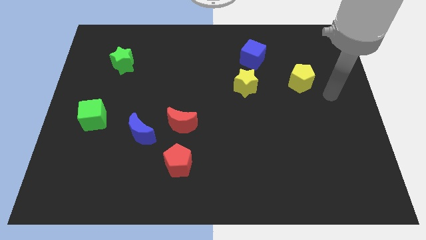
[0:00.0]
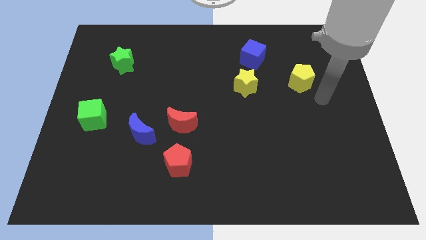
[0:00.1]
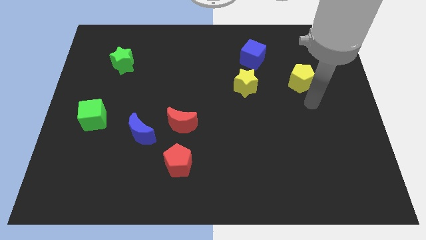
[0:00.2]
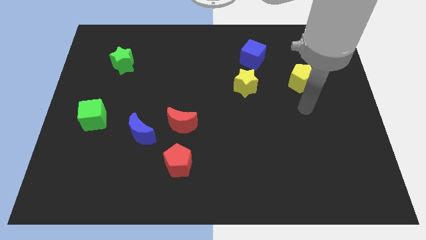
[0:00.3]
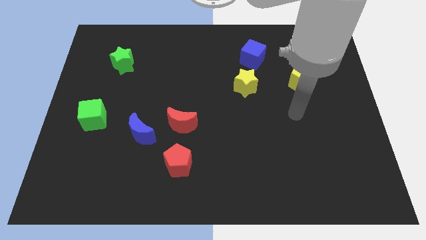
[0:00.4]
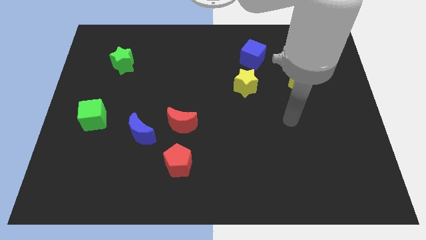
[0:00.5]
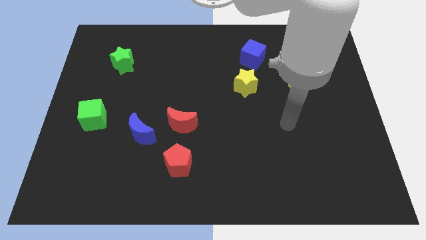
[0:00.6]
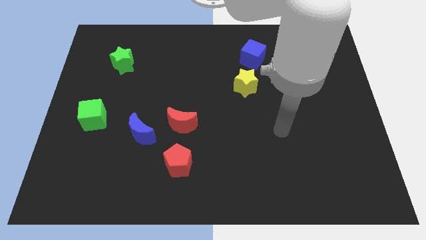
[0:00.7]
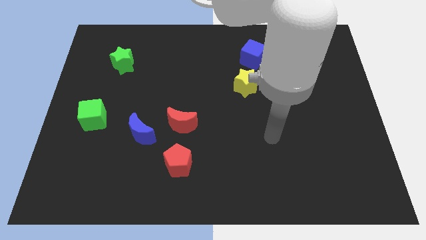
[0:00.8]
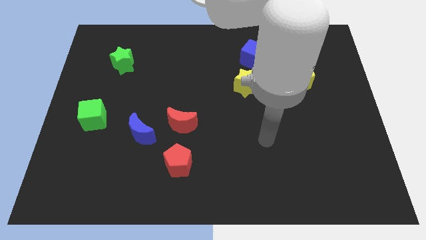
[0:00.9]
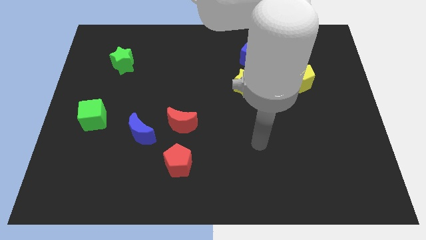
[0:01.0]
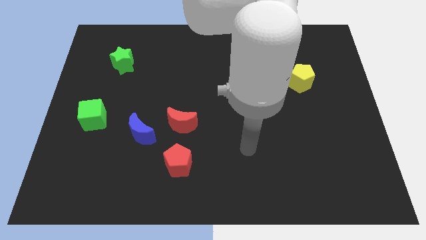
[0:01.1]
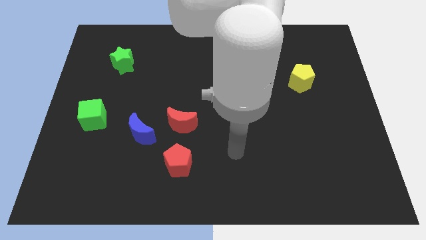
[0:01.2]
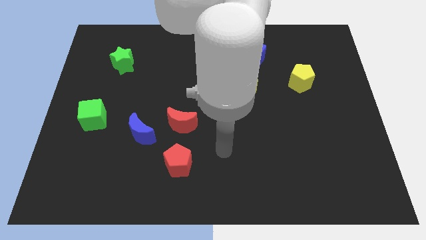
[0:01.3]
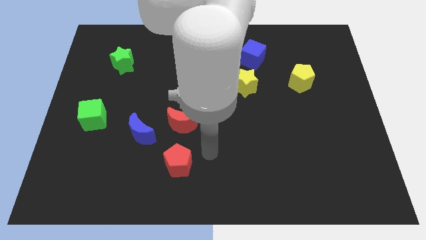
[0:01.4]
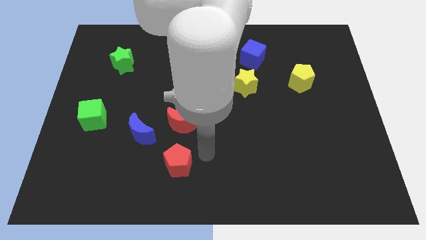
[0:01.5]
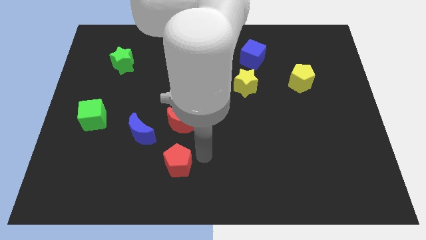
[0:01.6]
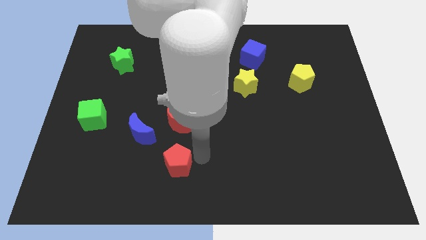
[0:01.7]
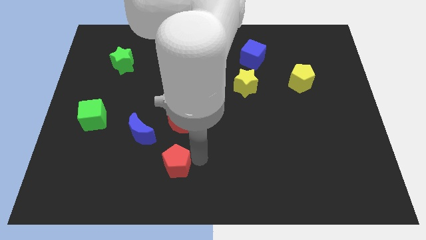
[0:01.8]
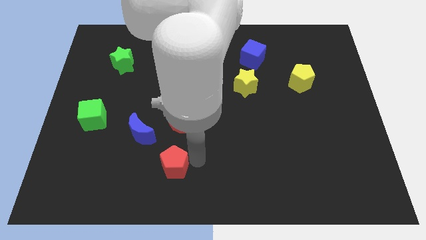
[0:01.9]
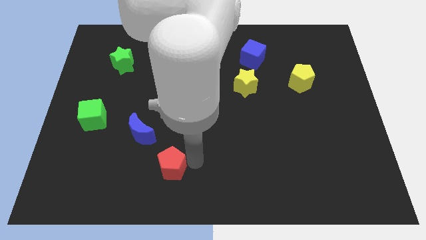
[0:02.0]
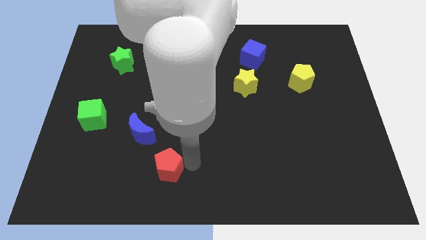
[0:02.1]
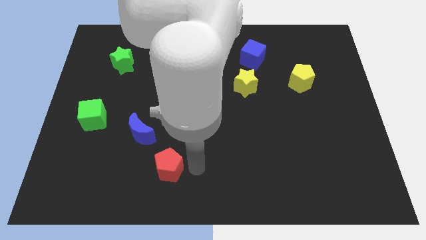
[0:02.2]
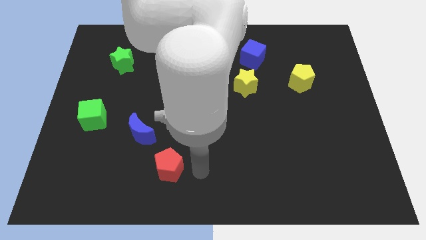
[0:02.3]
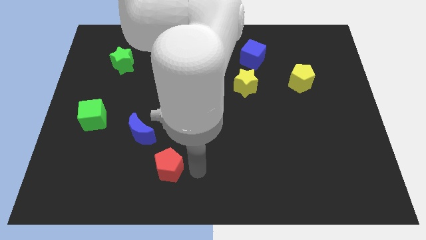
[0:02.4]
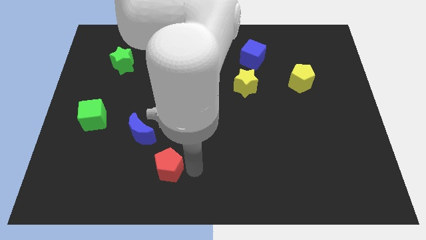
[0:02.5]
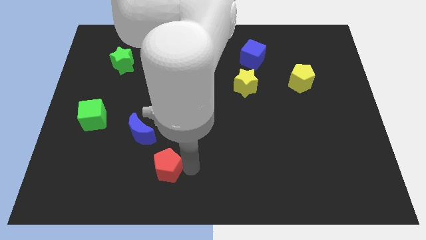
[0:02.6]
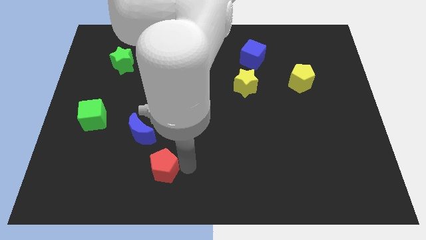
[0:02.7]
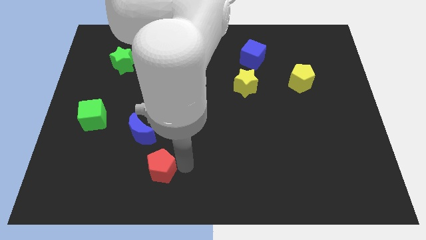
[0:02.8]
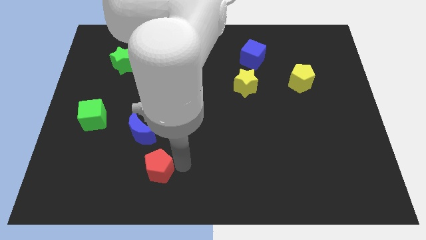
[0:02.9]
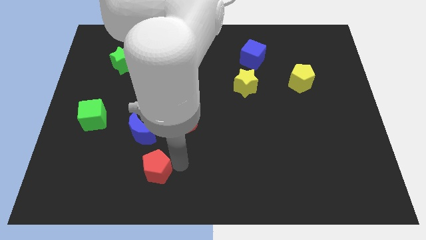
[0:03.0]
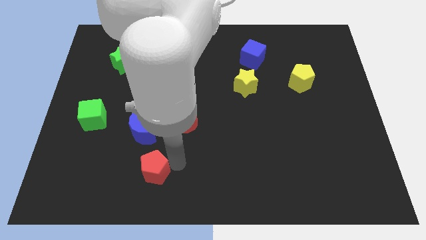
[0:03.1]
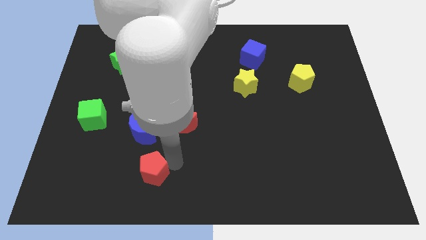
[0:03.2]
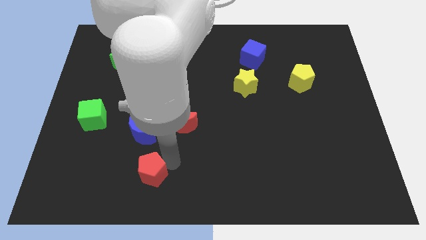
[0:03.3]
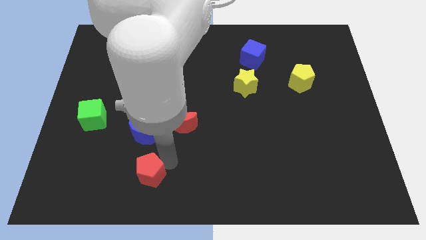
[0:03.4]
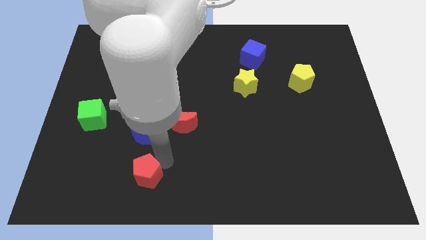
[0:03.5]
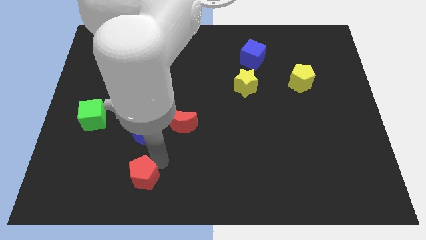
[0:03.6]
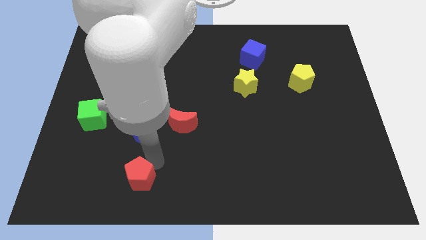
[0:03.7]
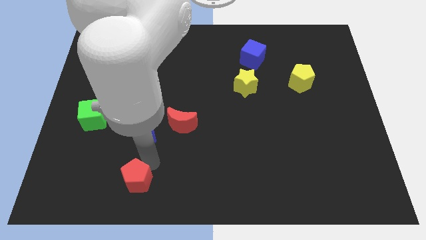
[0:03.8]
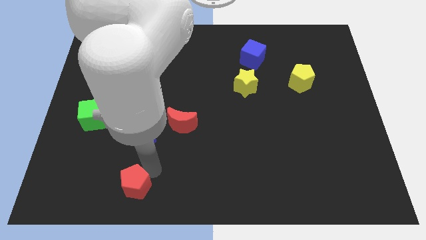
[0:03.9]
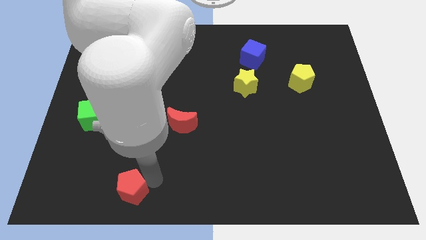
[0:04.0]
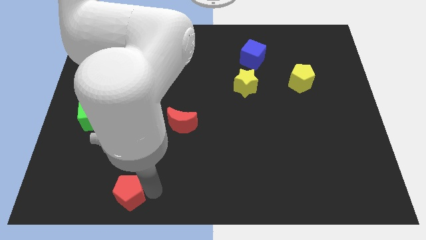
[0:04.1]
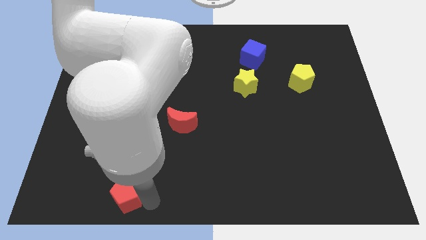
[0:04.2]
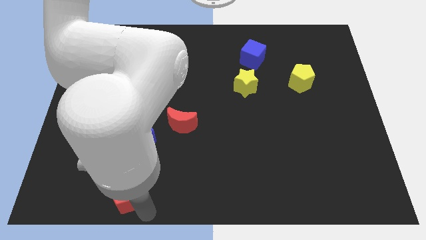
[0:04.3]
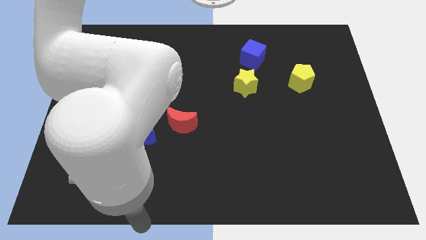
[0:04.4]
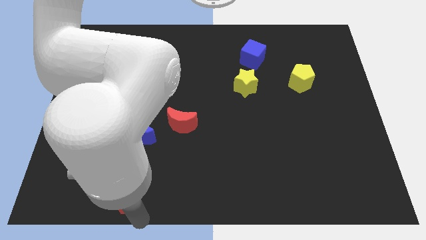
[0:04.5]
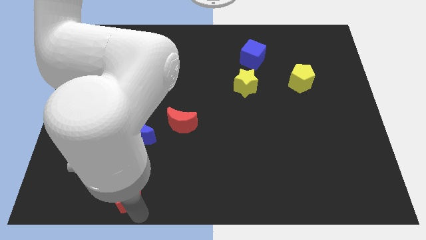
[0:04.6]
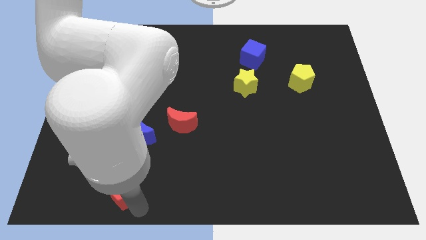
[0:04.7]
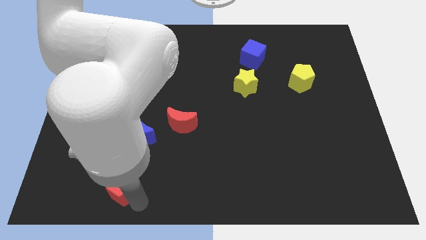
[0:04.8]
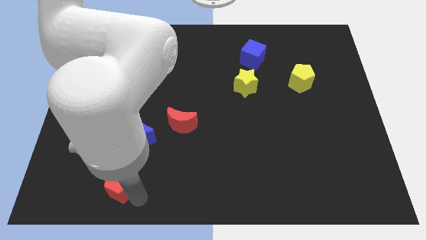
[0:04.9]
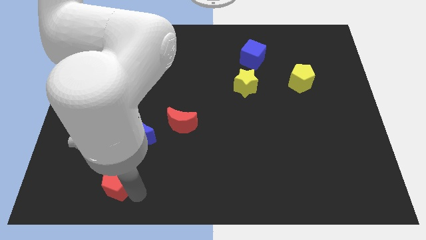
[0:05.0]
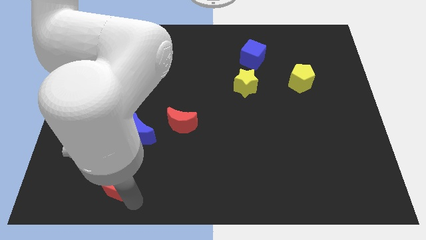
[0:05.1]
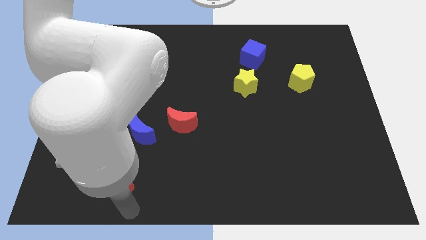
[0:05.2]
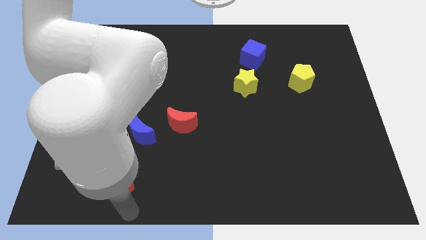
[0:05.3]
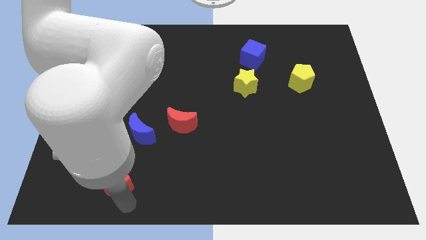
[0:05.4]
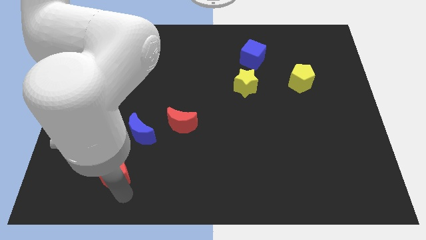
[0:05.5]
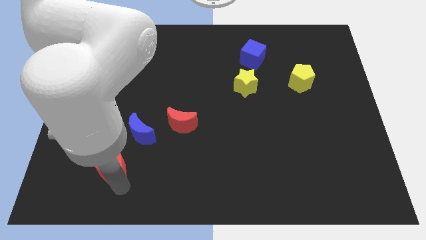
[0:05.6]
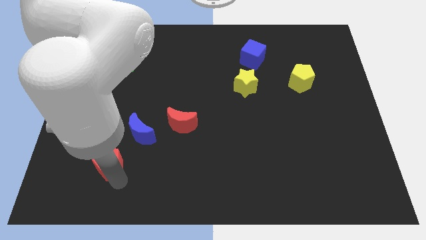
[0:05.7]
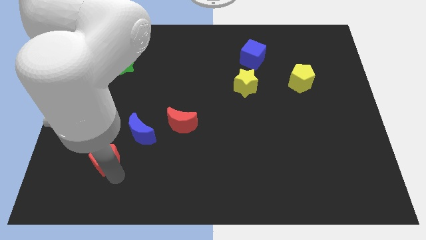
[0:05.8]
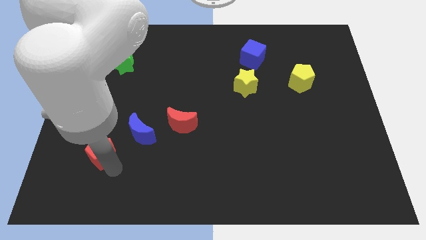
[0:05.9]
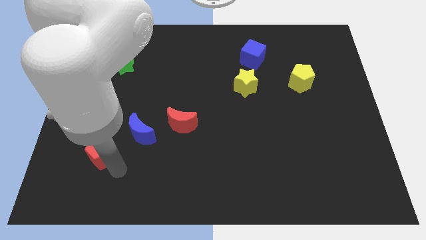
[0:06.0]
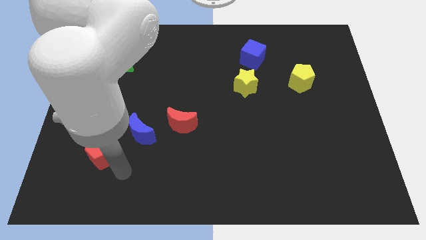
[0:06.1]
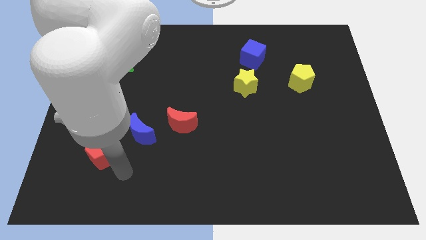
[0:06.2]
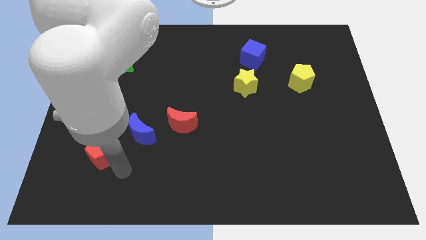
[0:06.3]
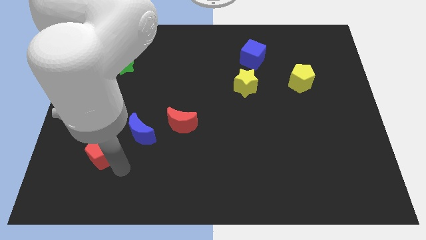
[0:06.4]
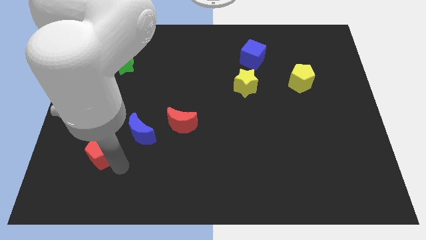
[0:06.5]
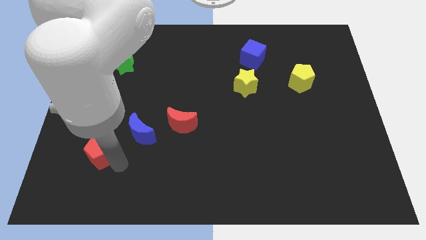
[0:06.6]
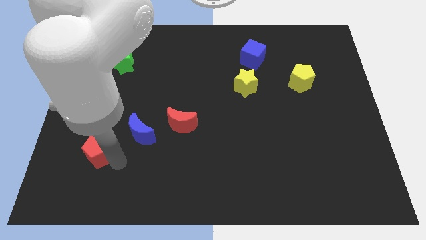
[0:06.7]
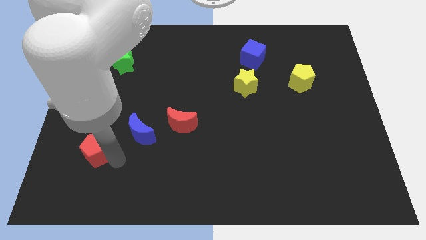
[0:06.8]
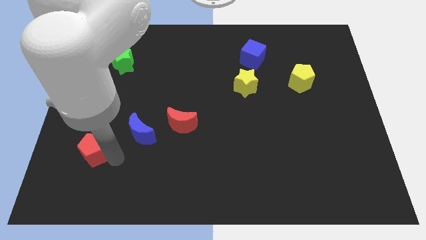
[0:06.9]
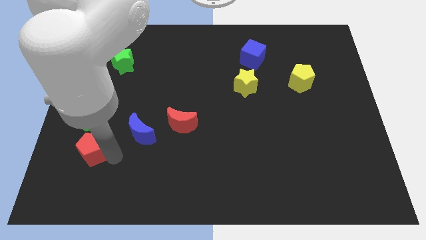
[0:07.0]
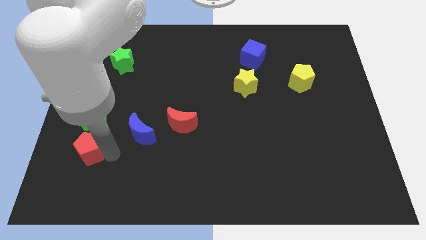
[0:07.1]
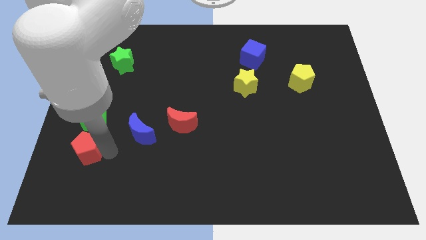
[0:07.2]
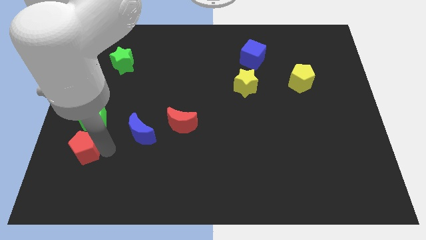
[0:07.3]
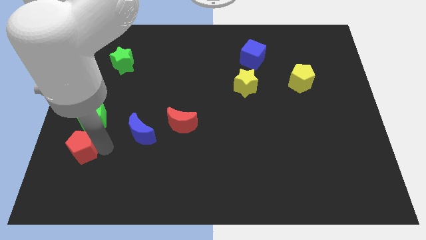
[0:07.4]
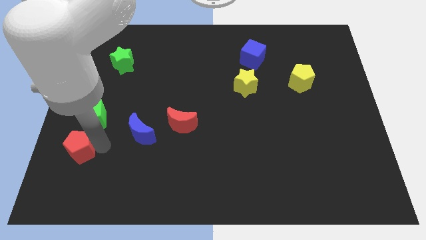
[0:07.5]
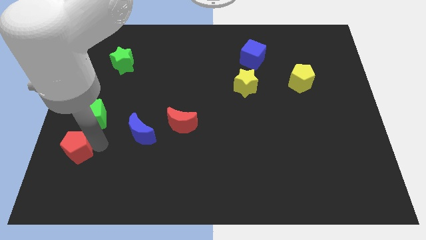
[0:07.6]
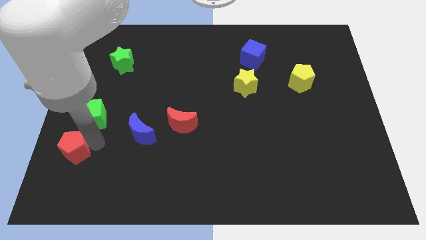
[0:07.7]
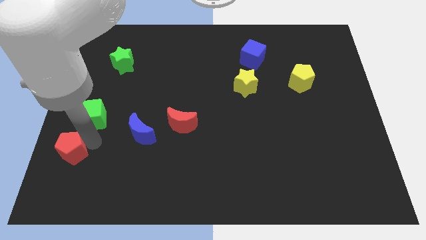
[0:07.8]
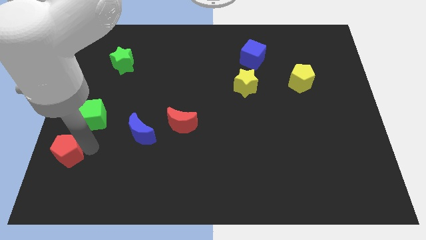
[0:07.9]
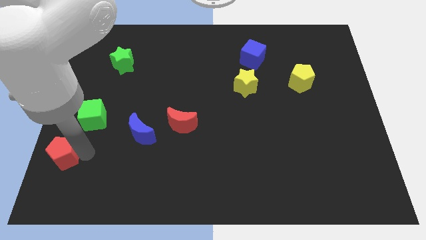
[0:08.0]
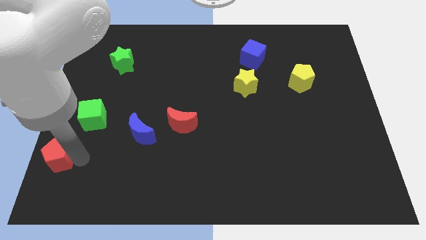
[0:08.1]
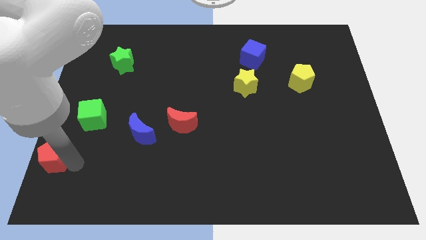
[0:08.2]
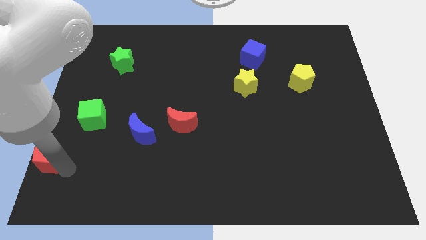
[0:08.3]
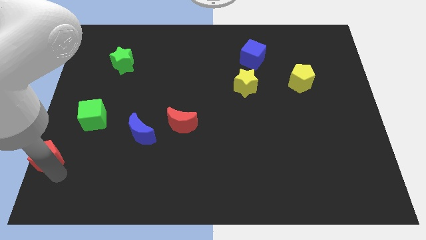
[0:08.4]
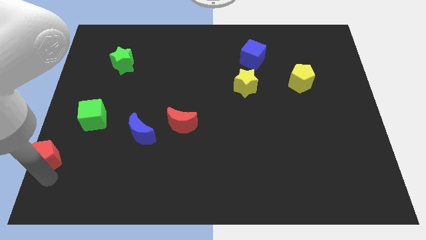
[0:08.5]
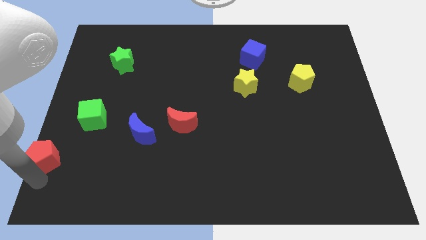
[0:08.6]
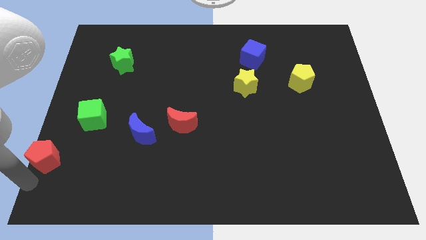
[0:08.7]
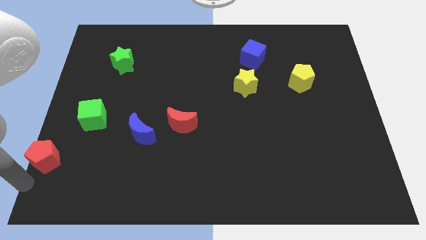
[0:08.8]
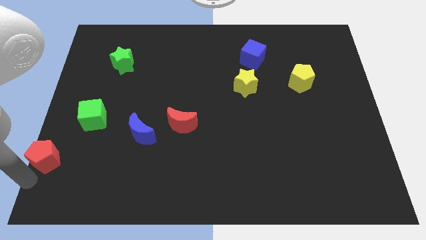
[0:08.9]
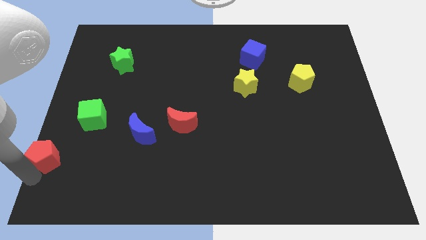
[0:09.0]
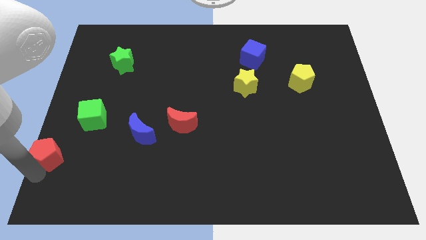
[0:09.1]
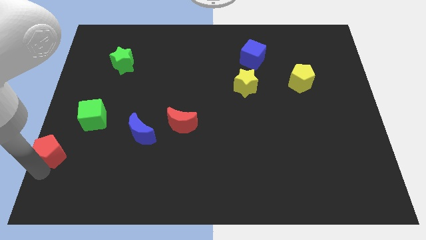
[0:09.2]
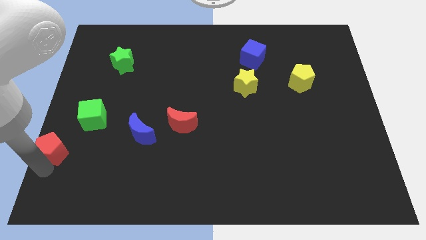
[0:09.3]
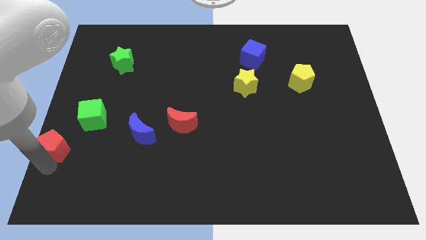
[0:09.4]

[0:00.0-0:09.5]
put the red pentagon to the center left
